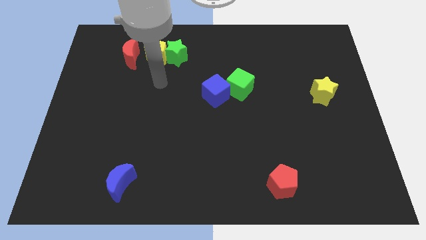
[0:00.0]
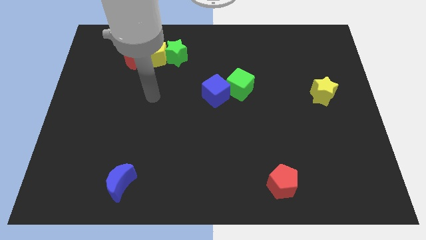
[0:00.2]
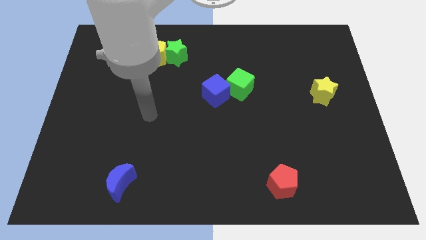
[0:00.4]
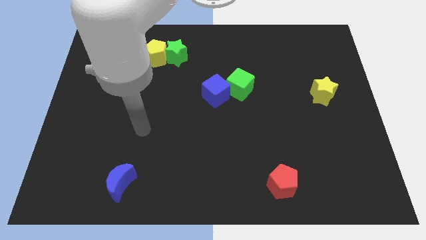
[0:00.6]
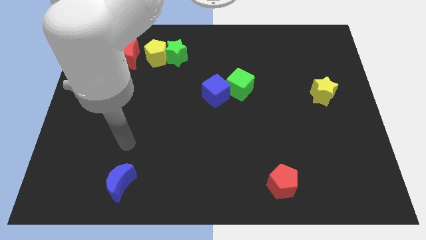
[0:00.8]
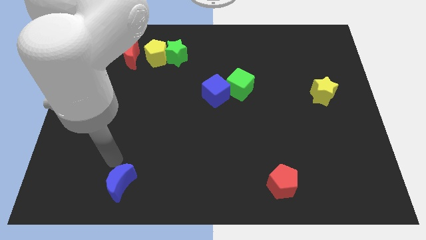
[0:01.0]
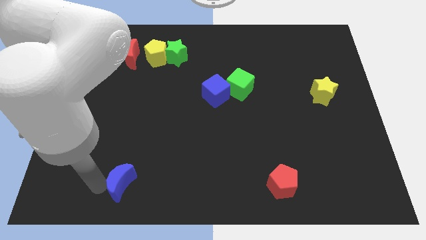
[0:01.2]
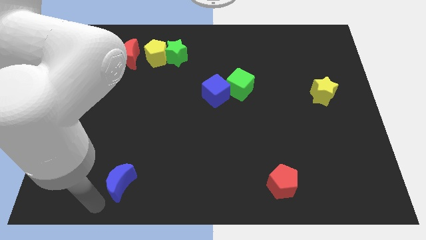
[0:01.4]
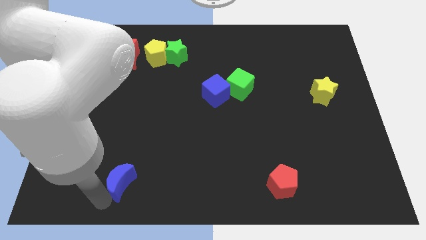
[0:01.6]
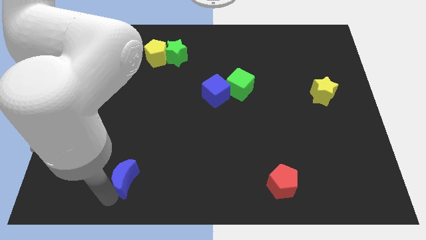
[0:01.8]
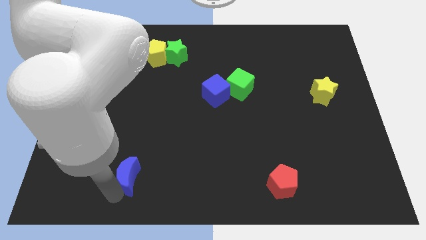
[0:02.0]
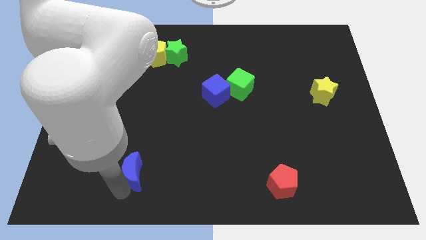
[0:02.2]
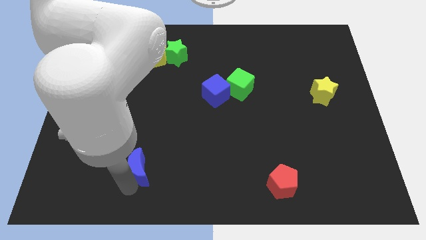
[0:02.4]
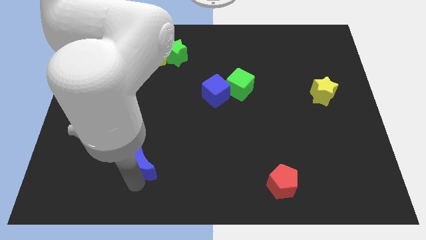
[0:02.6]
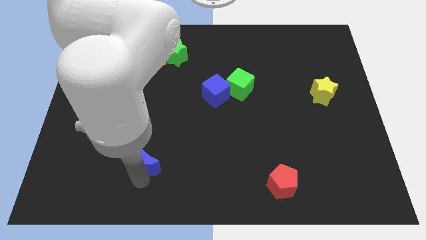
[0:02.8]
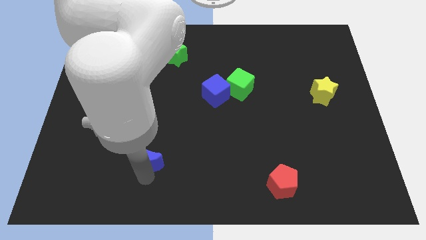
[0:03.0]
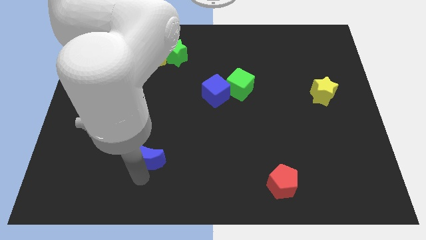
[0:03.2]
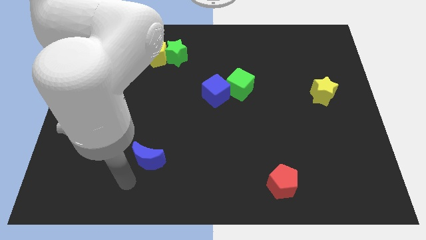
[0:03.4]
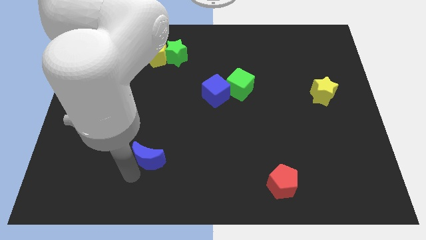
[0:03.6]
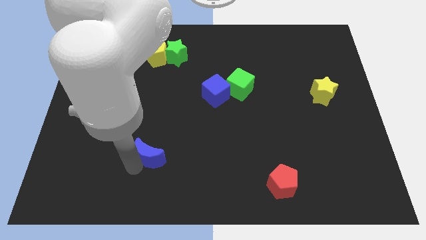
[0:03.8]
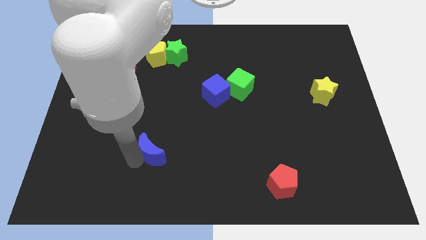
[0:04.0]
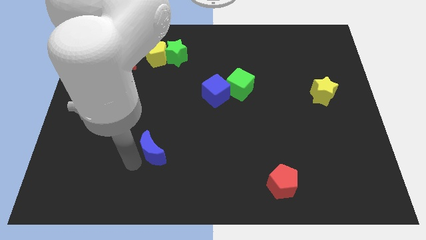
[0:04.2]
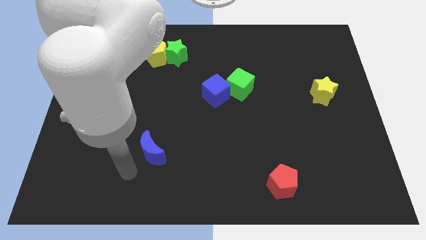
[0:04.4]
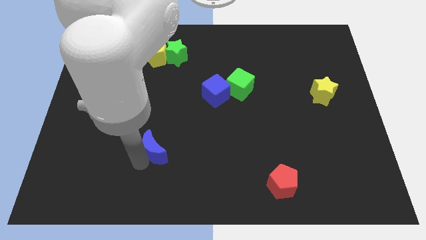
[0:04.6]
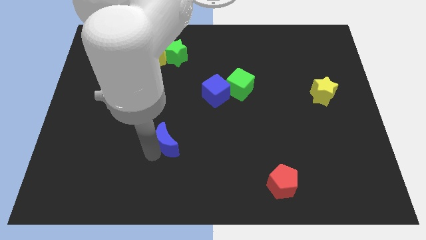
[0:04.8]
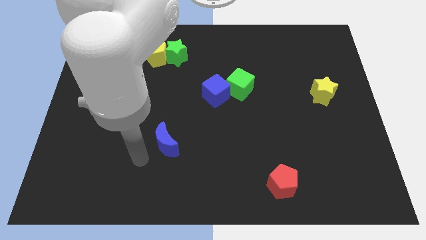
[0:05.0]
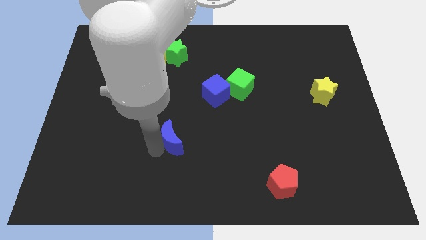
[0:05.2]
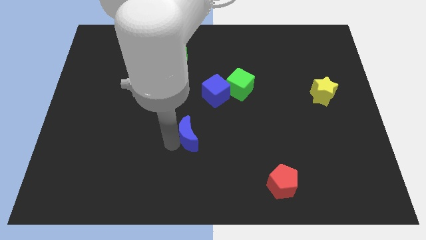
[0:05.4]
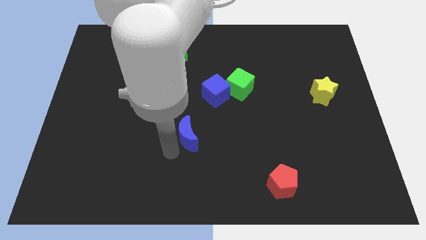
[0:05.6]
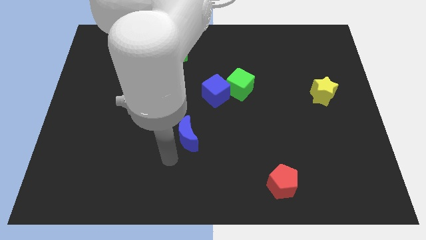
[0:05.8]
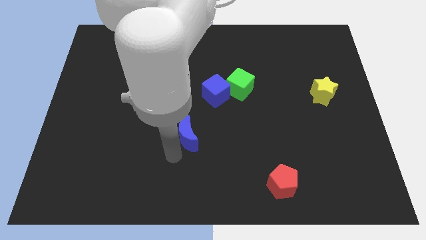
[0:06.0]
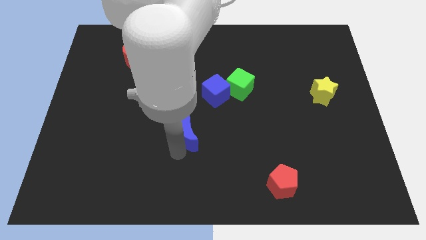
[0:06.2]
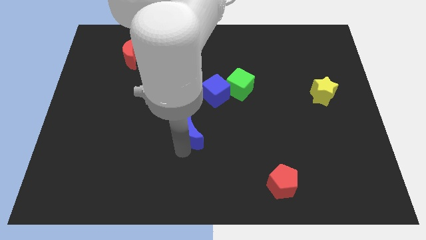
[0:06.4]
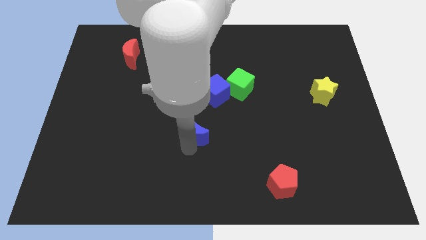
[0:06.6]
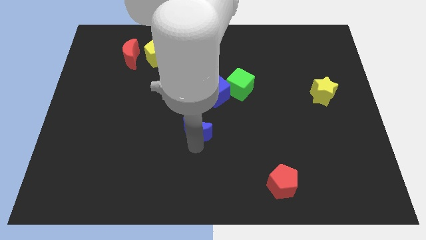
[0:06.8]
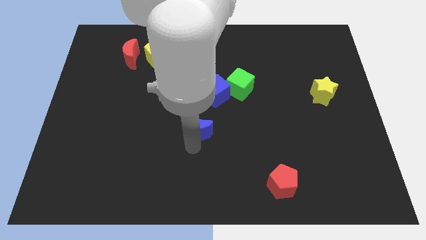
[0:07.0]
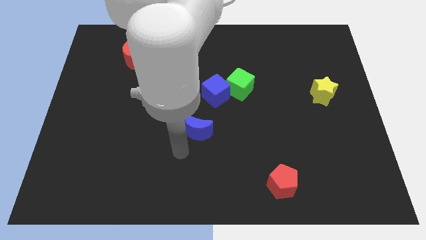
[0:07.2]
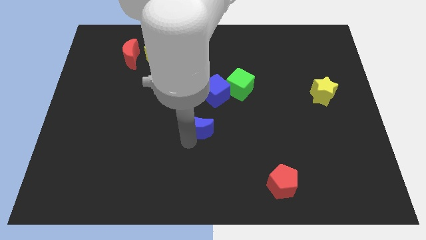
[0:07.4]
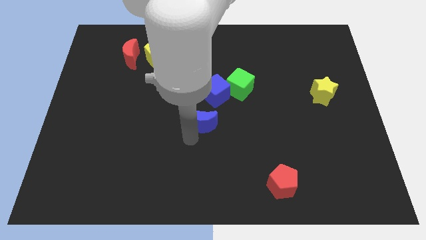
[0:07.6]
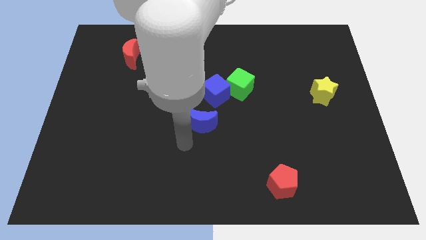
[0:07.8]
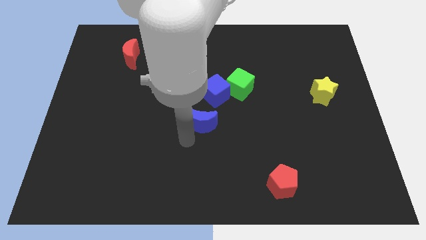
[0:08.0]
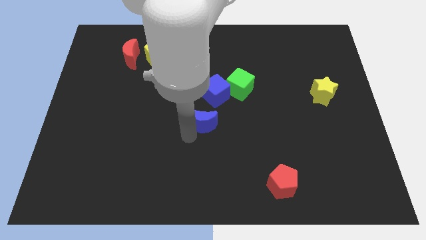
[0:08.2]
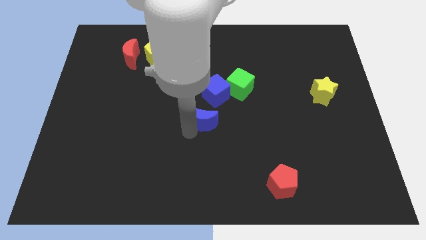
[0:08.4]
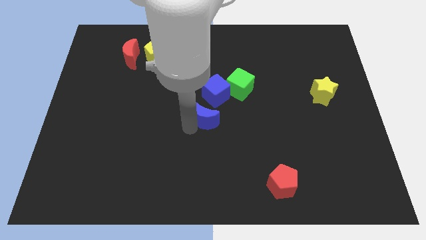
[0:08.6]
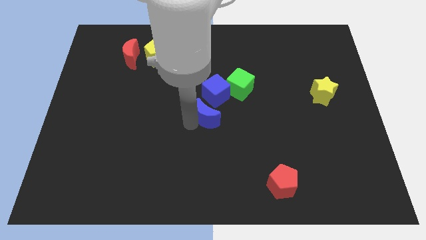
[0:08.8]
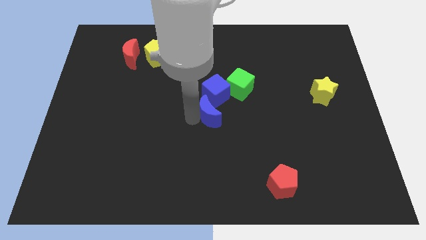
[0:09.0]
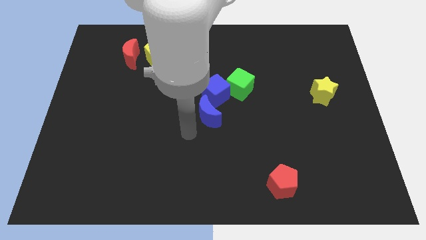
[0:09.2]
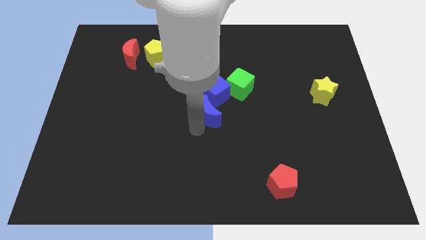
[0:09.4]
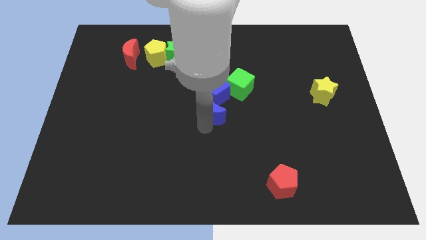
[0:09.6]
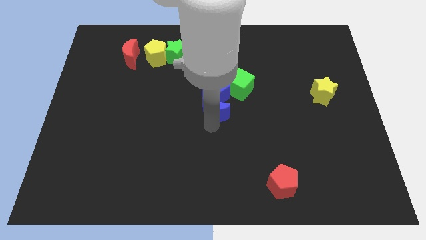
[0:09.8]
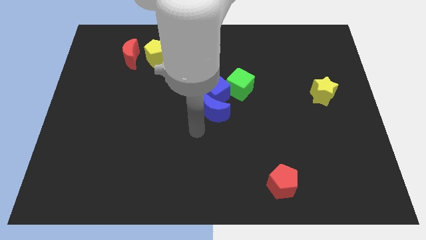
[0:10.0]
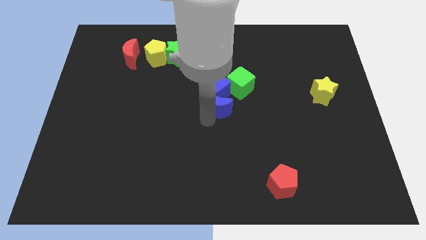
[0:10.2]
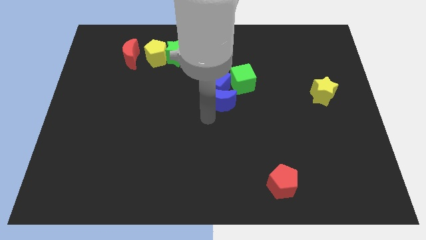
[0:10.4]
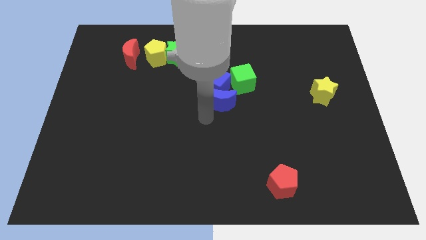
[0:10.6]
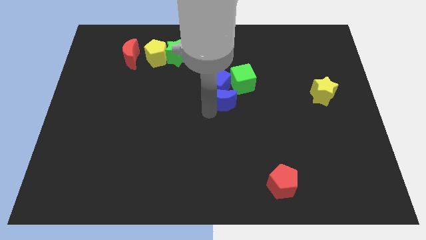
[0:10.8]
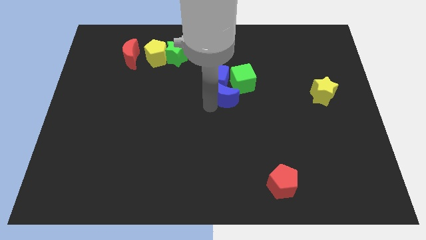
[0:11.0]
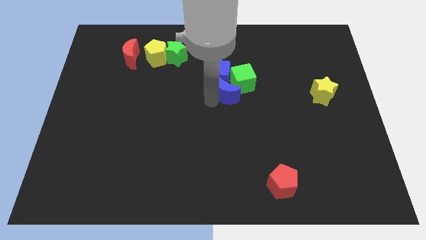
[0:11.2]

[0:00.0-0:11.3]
put the blue moon next to the green cube

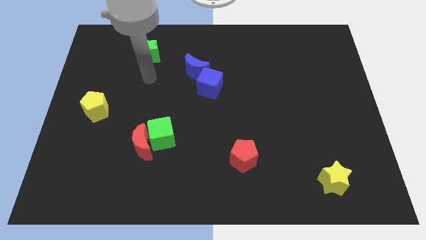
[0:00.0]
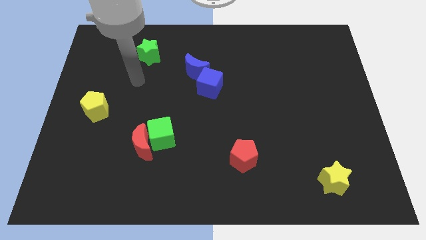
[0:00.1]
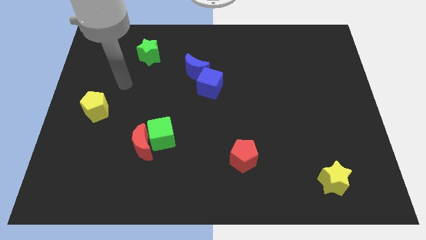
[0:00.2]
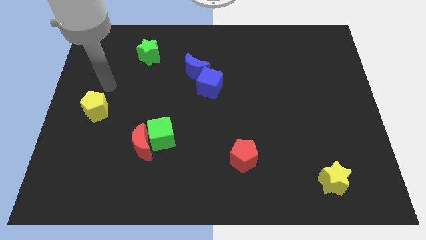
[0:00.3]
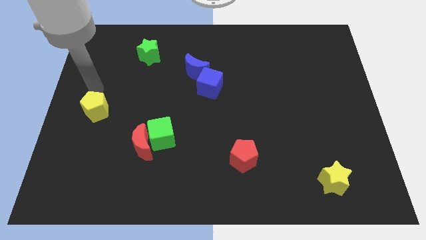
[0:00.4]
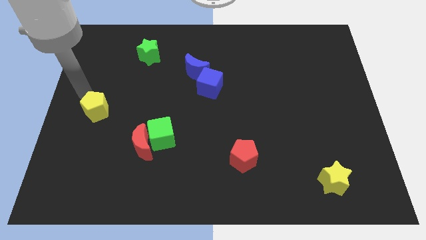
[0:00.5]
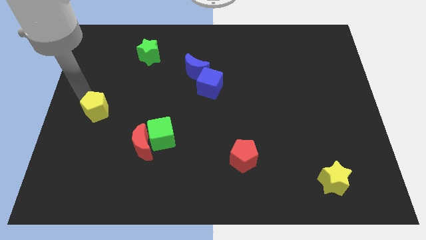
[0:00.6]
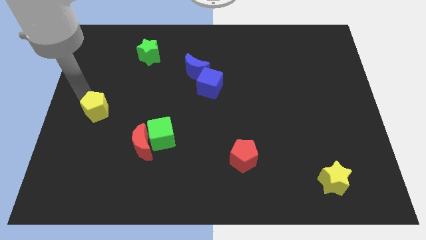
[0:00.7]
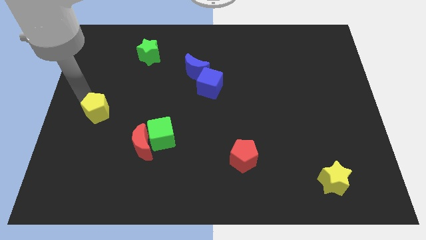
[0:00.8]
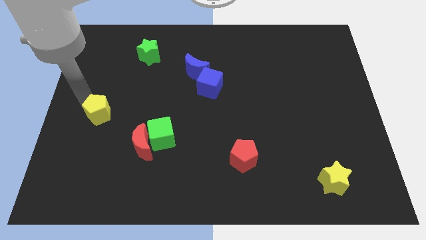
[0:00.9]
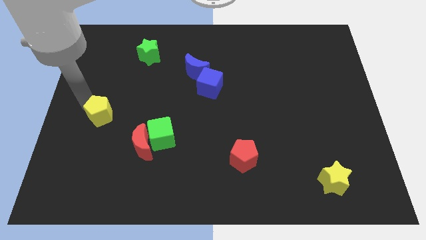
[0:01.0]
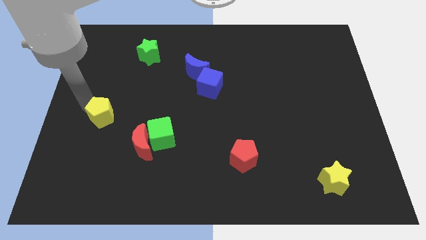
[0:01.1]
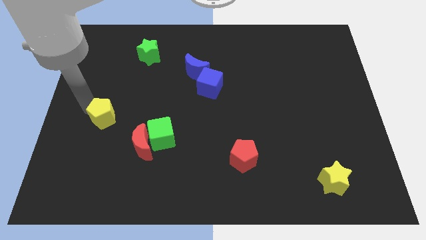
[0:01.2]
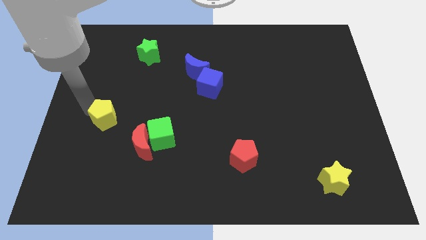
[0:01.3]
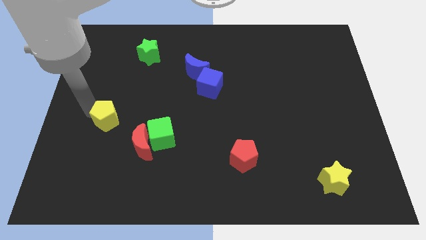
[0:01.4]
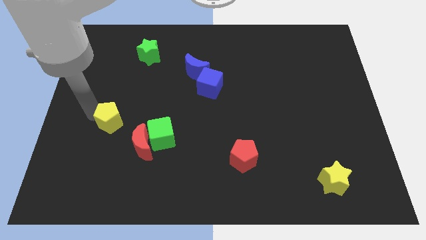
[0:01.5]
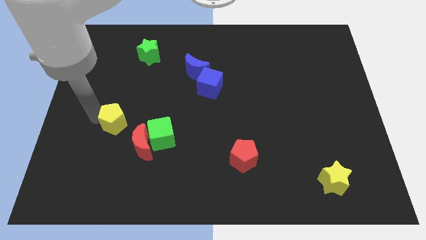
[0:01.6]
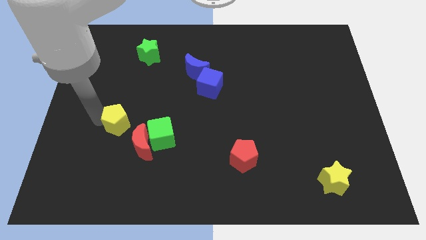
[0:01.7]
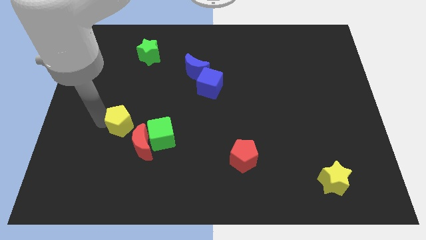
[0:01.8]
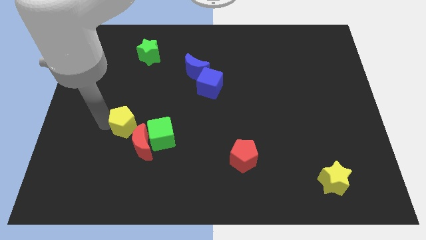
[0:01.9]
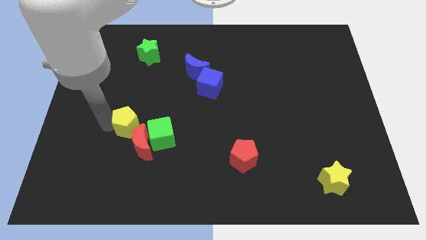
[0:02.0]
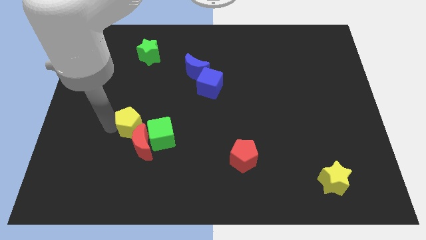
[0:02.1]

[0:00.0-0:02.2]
put the yellow pentagon to the red moon
